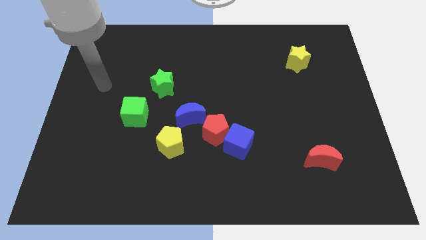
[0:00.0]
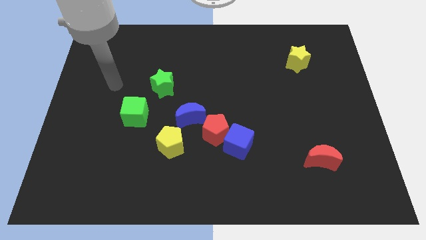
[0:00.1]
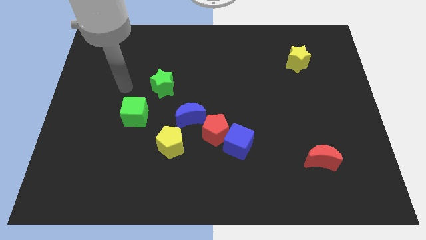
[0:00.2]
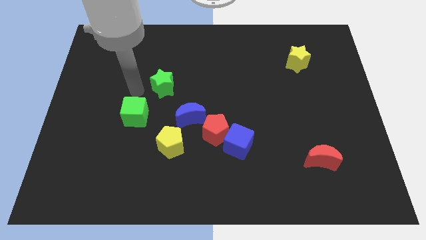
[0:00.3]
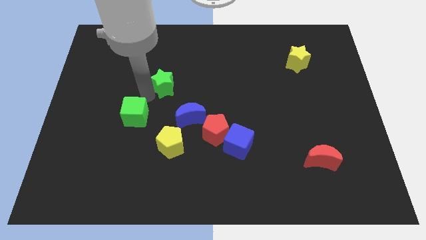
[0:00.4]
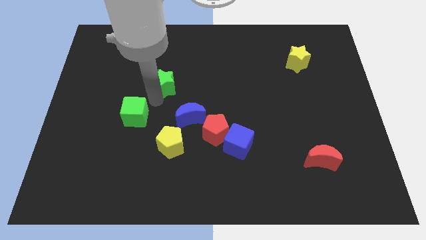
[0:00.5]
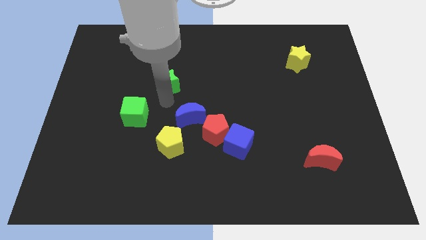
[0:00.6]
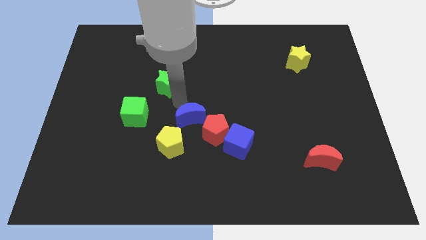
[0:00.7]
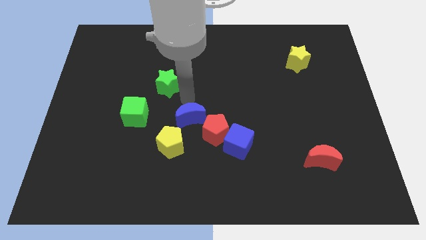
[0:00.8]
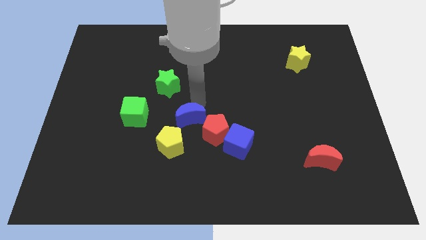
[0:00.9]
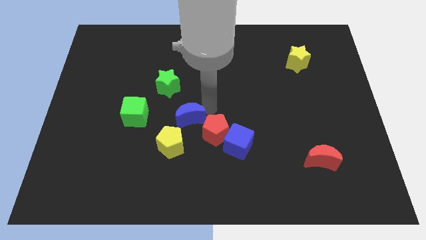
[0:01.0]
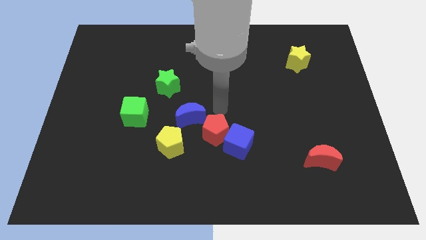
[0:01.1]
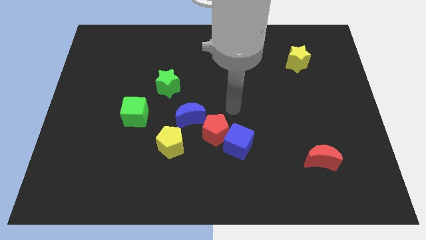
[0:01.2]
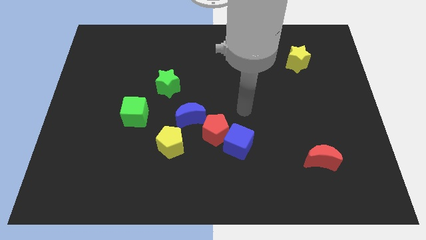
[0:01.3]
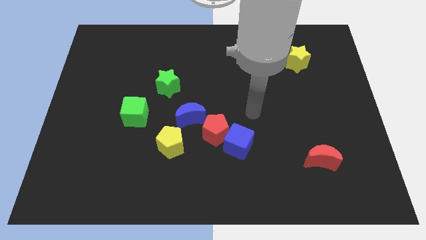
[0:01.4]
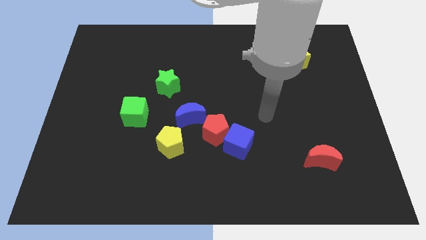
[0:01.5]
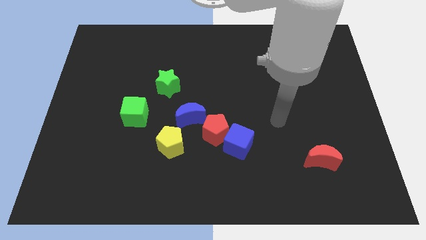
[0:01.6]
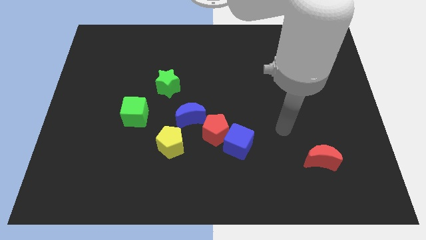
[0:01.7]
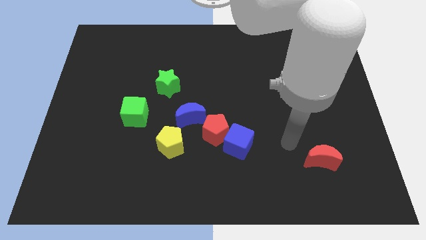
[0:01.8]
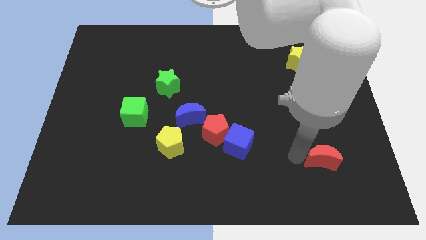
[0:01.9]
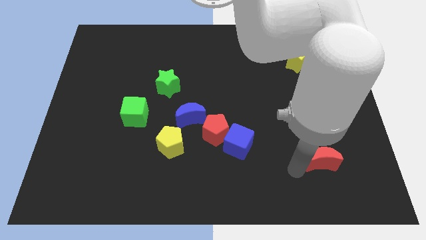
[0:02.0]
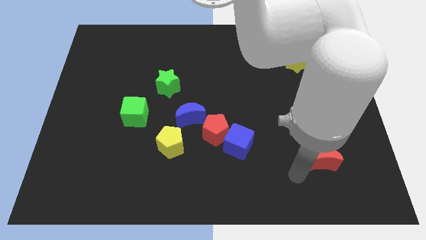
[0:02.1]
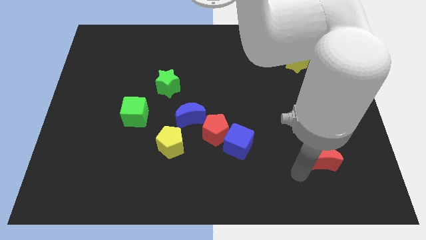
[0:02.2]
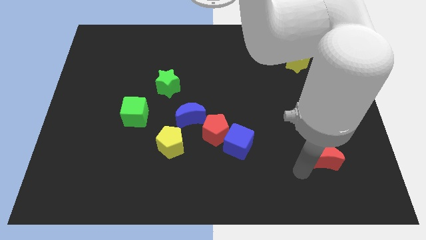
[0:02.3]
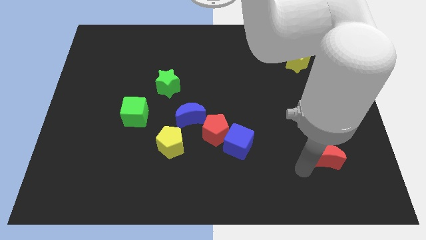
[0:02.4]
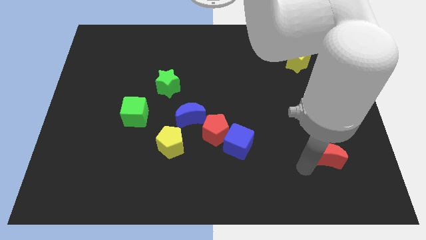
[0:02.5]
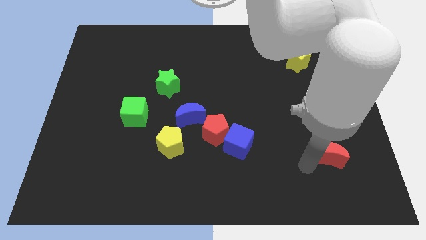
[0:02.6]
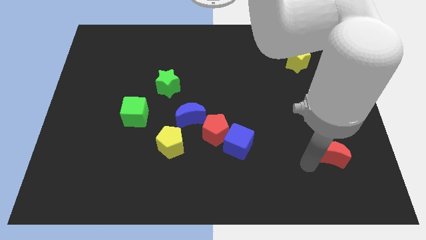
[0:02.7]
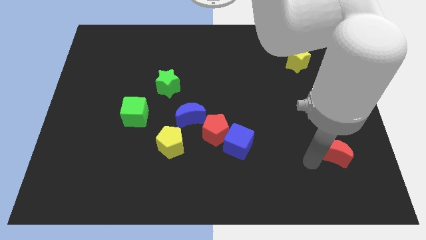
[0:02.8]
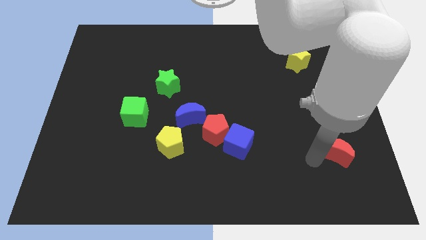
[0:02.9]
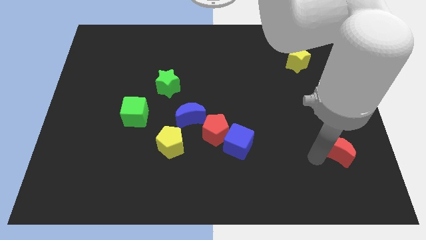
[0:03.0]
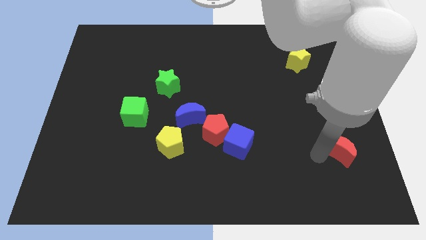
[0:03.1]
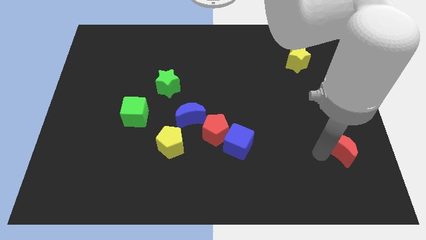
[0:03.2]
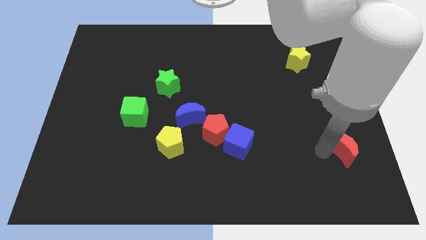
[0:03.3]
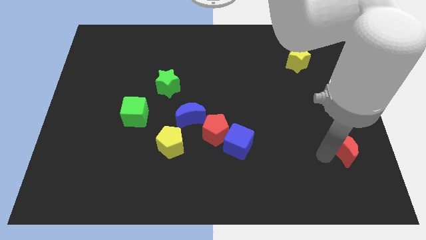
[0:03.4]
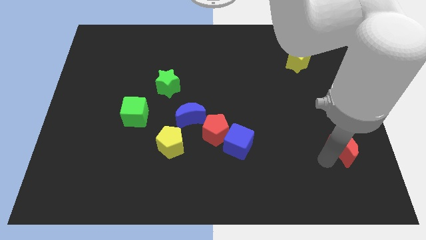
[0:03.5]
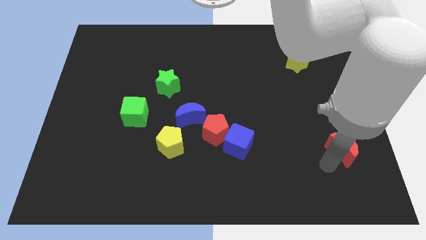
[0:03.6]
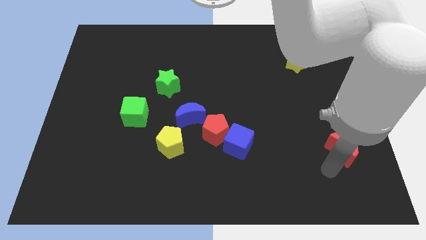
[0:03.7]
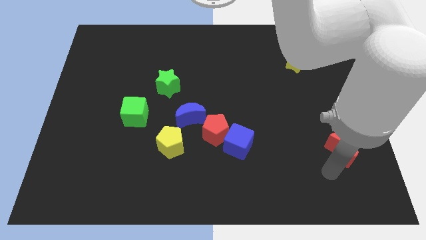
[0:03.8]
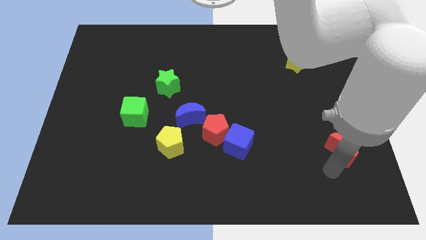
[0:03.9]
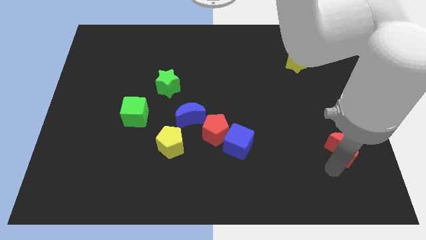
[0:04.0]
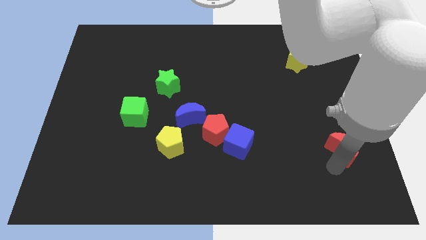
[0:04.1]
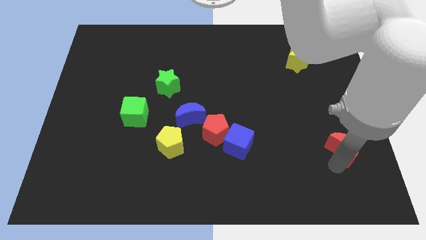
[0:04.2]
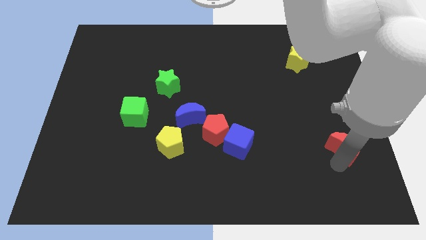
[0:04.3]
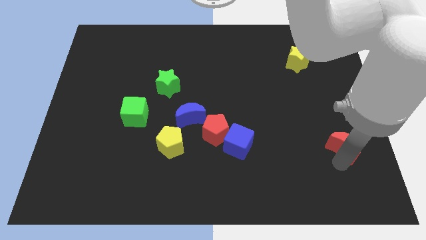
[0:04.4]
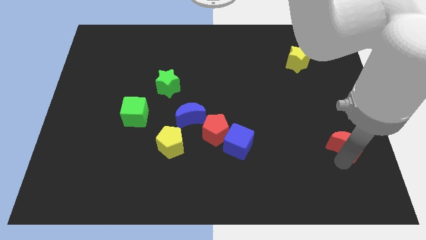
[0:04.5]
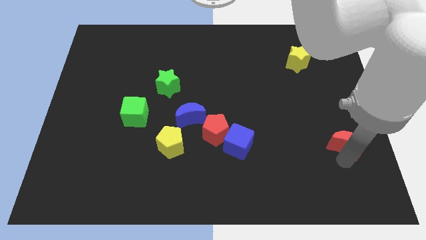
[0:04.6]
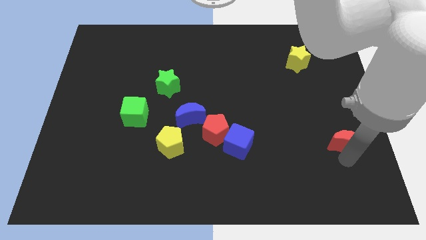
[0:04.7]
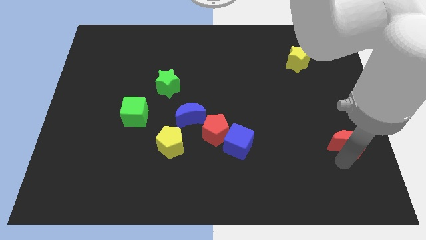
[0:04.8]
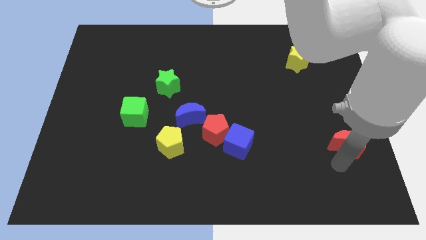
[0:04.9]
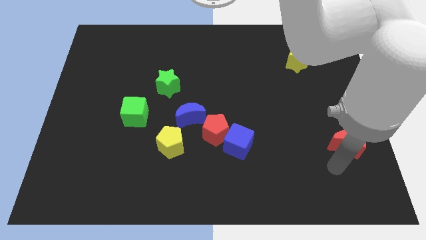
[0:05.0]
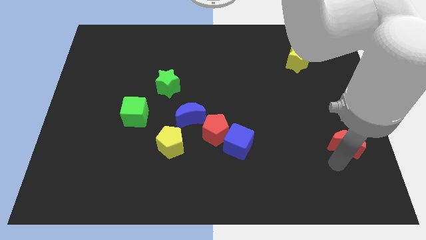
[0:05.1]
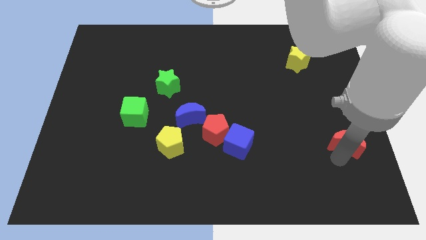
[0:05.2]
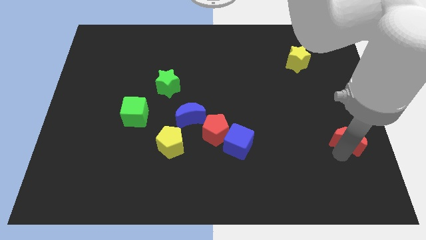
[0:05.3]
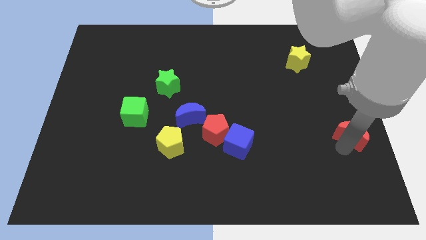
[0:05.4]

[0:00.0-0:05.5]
move the red moon to the right side

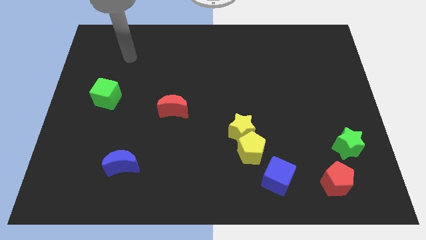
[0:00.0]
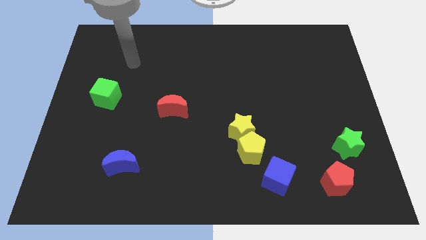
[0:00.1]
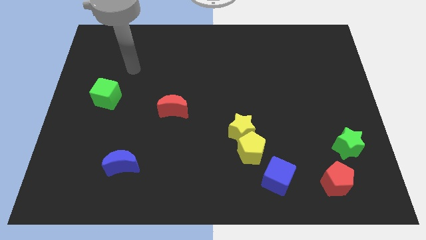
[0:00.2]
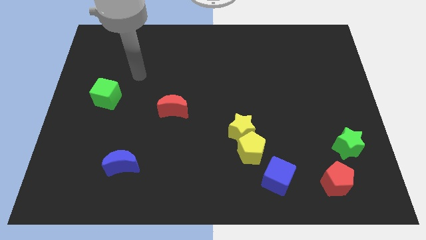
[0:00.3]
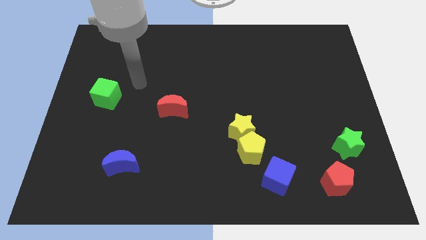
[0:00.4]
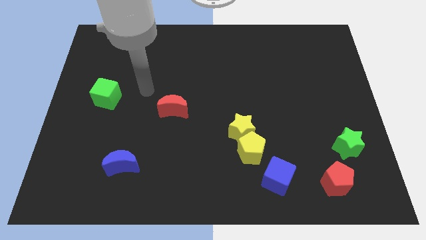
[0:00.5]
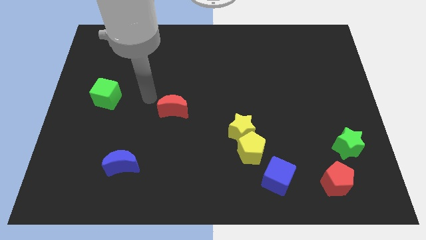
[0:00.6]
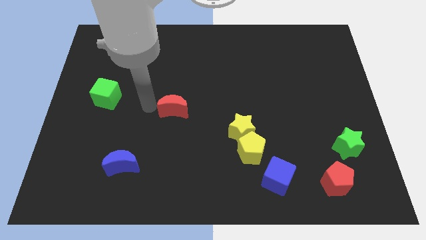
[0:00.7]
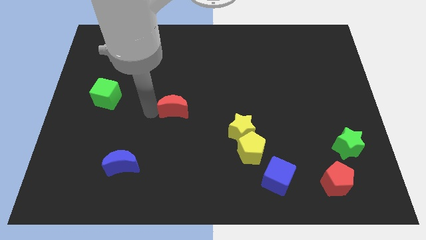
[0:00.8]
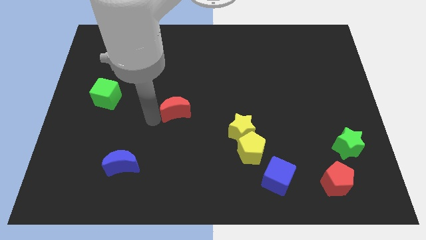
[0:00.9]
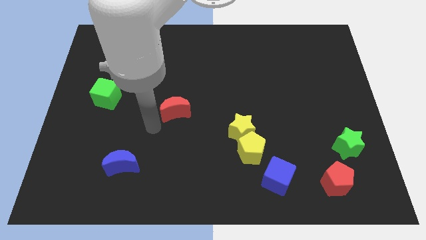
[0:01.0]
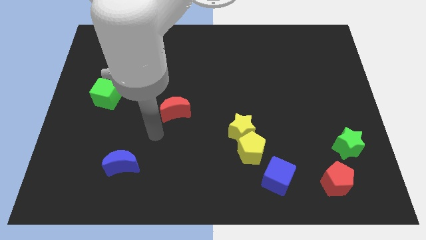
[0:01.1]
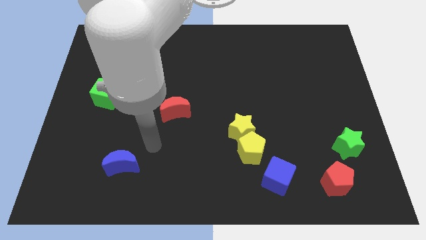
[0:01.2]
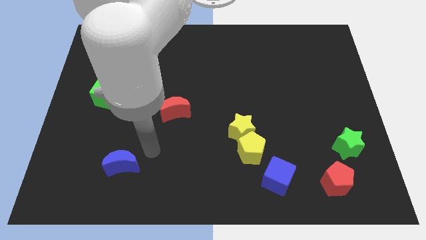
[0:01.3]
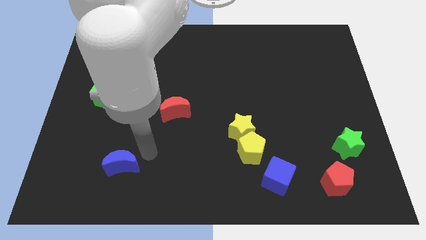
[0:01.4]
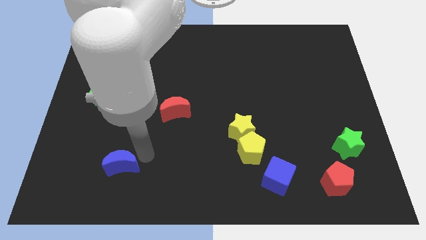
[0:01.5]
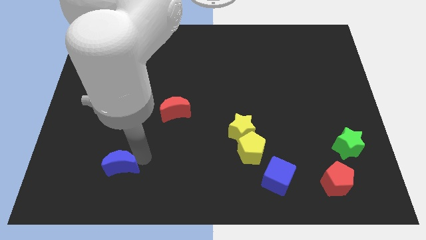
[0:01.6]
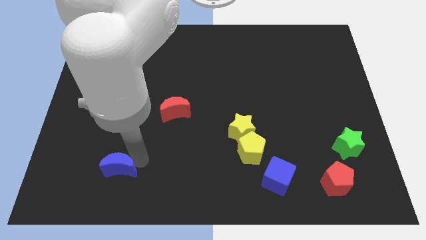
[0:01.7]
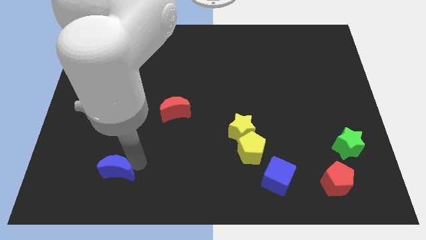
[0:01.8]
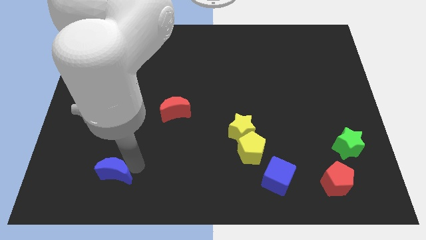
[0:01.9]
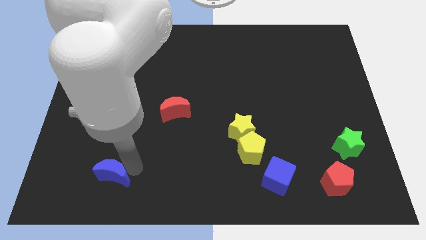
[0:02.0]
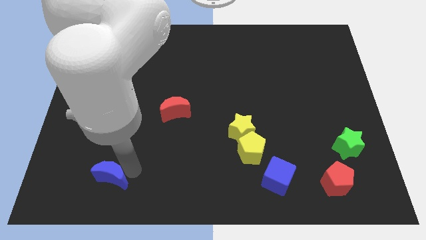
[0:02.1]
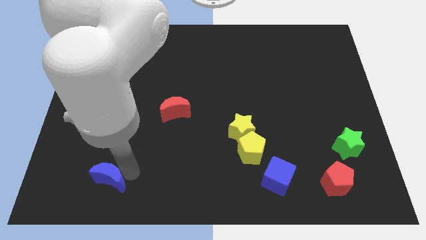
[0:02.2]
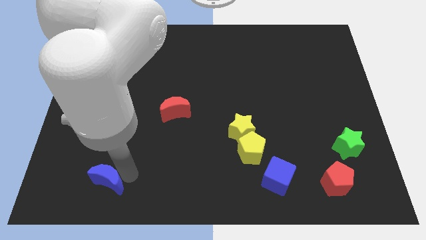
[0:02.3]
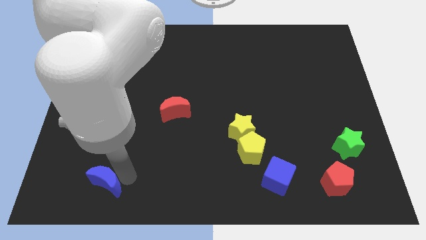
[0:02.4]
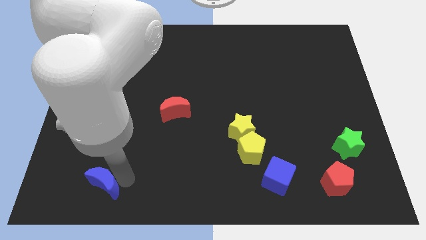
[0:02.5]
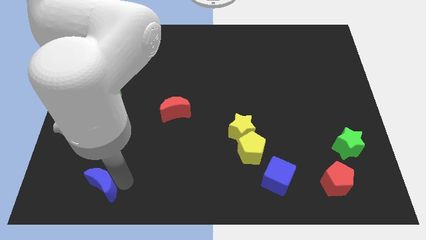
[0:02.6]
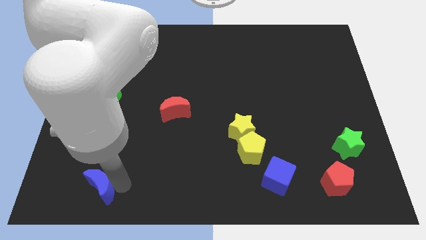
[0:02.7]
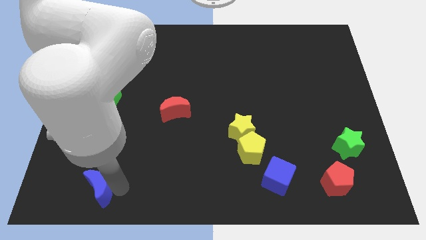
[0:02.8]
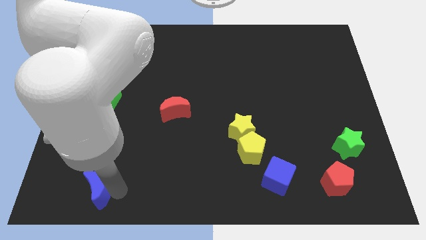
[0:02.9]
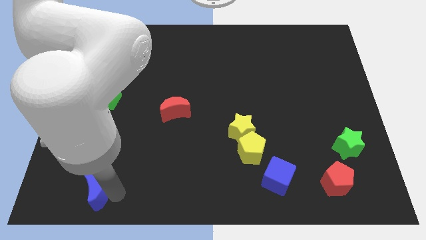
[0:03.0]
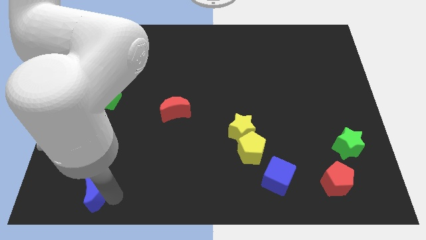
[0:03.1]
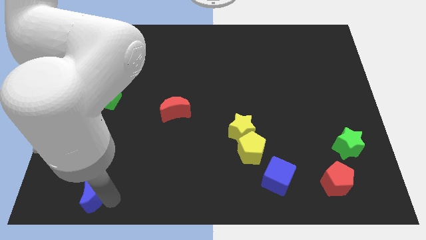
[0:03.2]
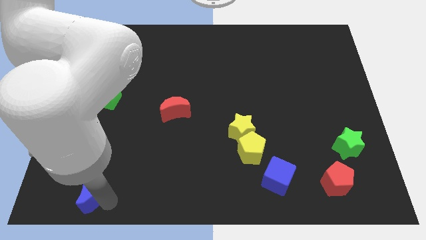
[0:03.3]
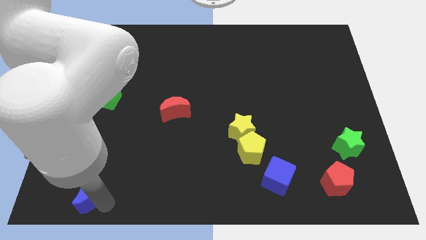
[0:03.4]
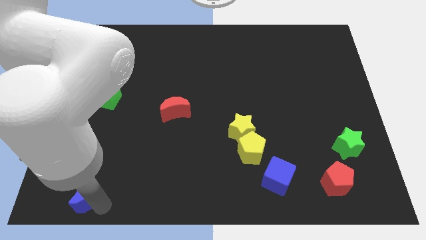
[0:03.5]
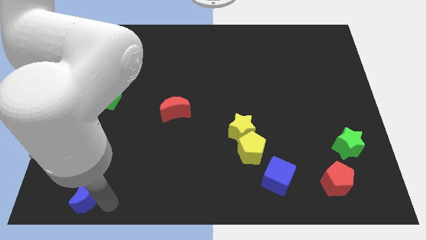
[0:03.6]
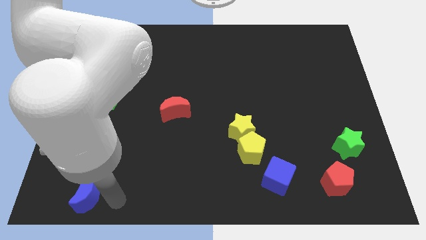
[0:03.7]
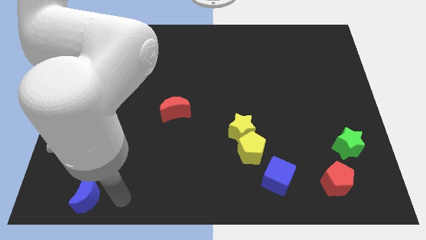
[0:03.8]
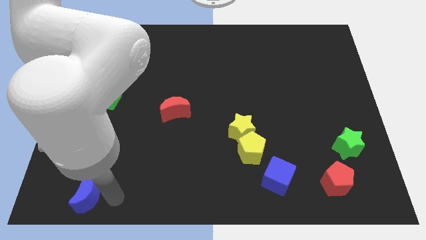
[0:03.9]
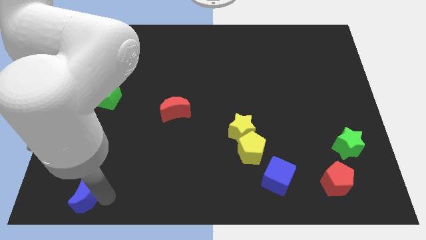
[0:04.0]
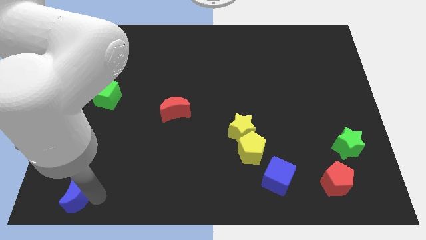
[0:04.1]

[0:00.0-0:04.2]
push the blue moon to the lower left corner
